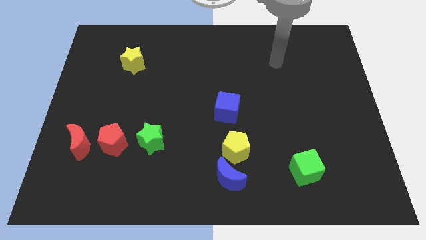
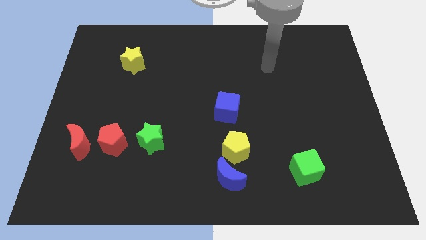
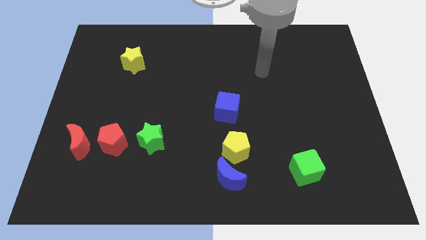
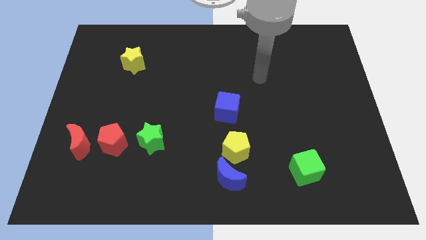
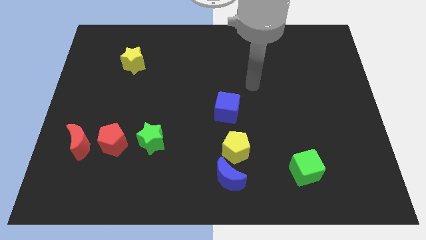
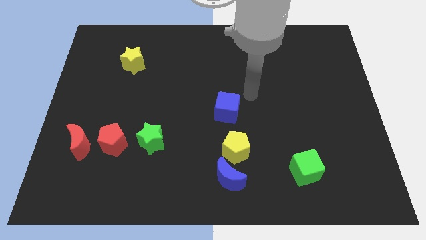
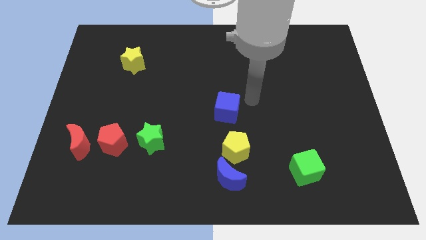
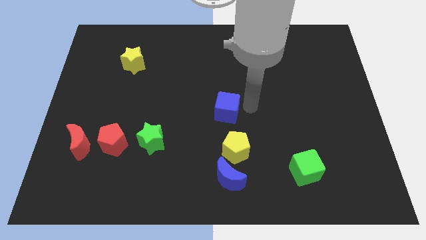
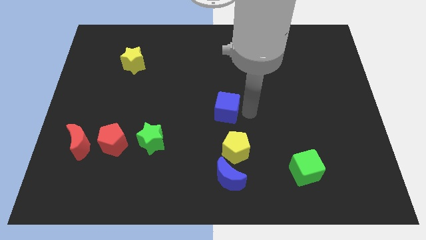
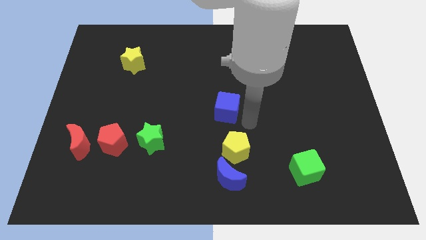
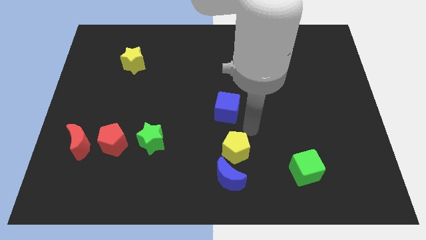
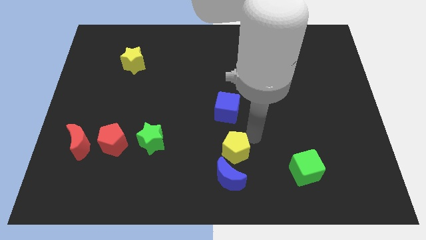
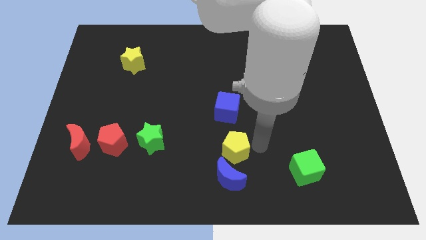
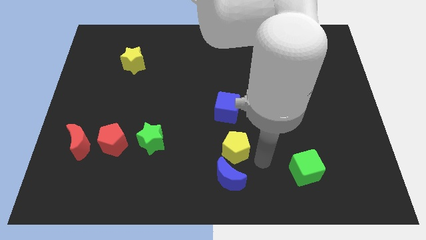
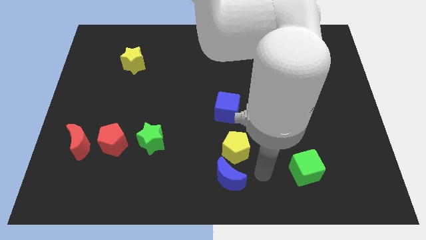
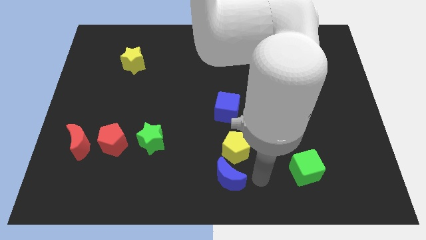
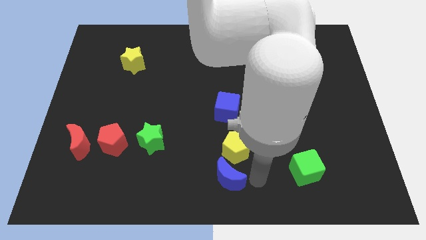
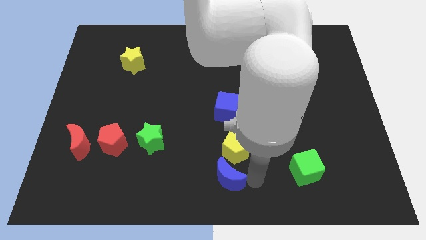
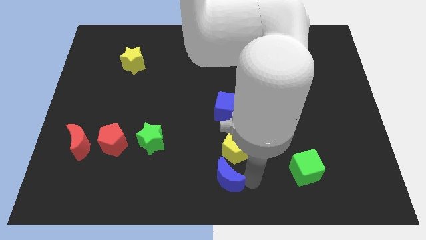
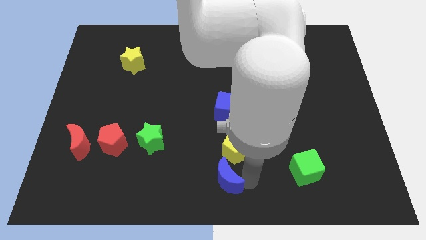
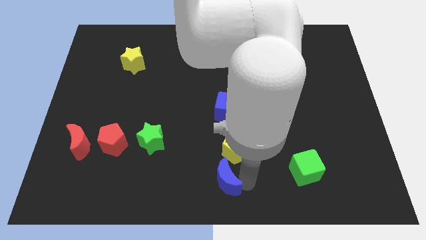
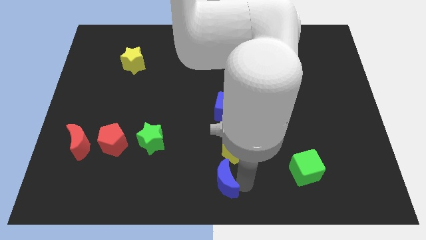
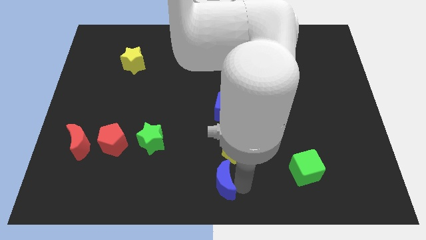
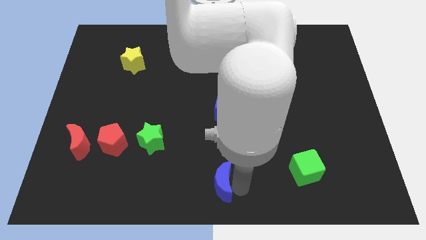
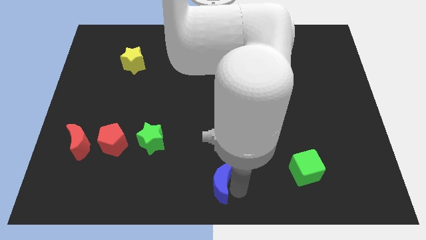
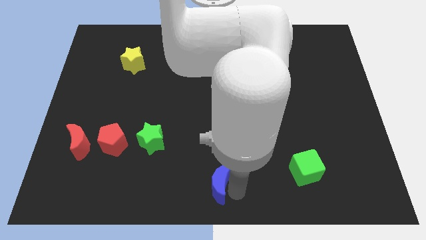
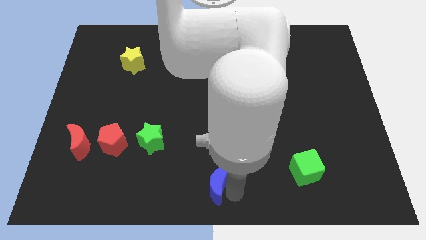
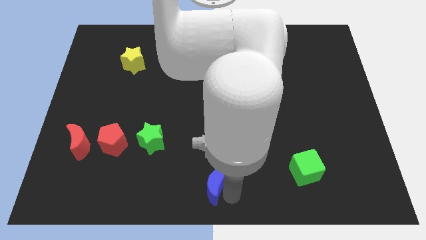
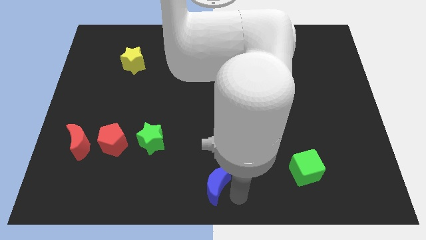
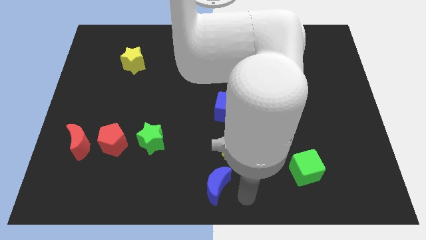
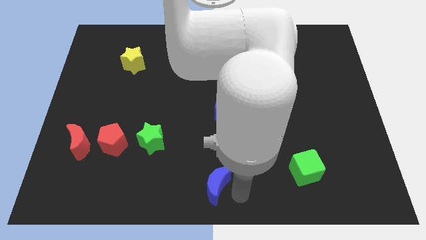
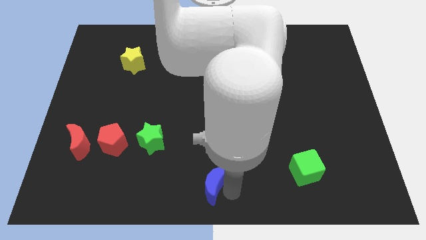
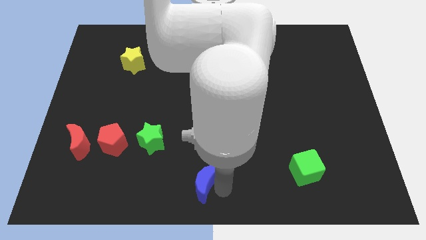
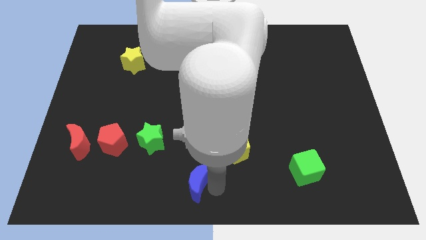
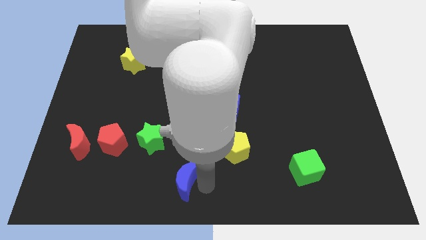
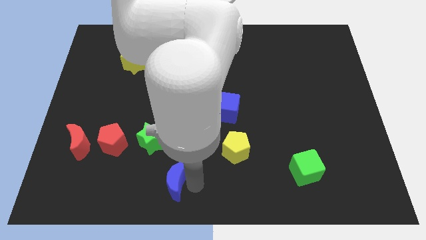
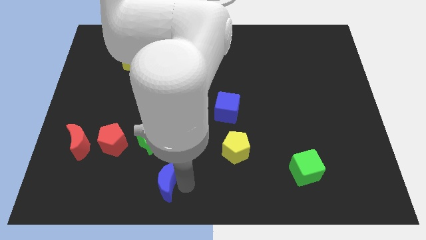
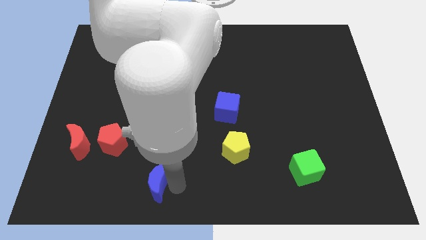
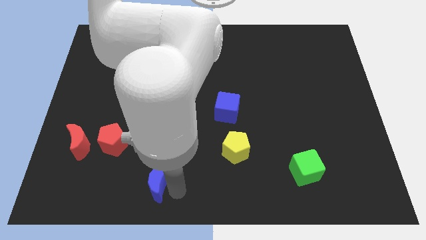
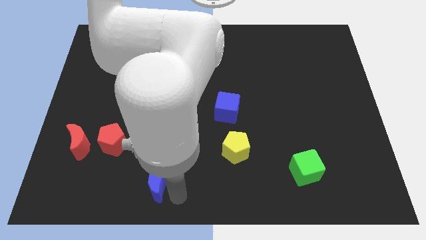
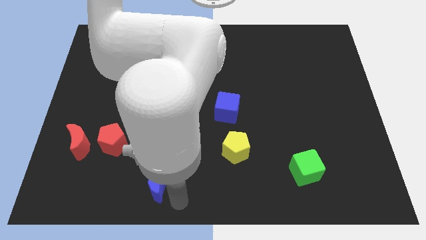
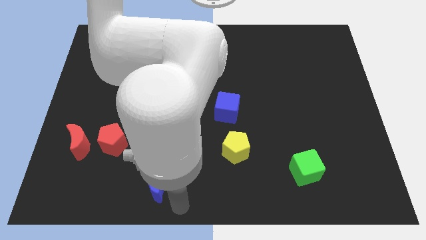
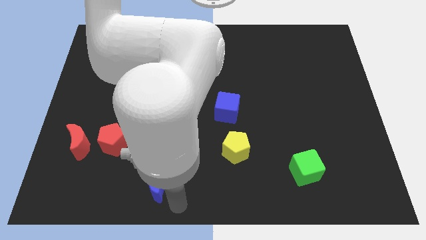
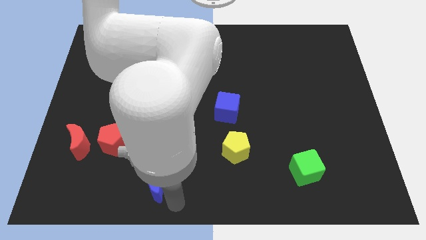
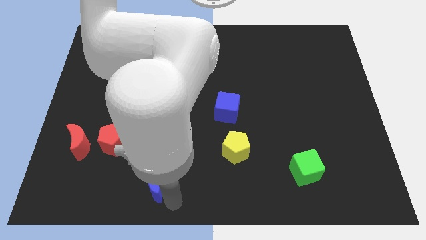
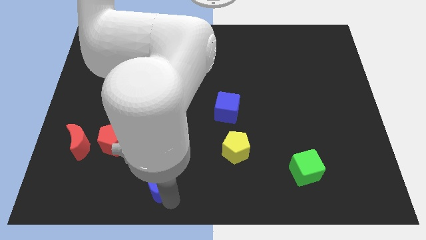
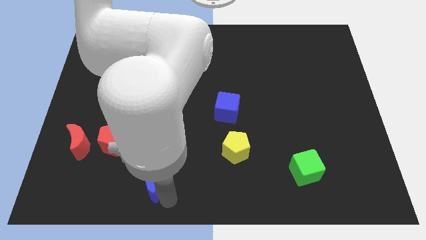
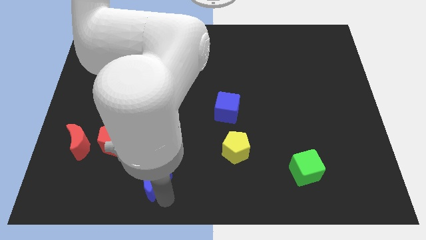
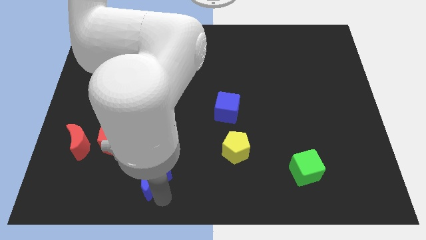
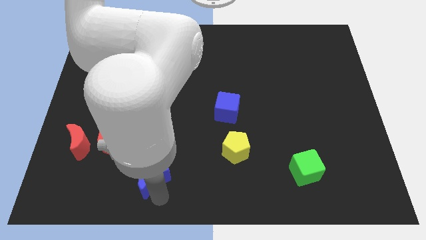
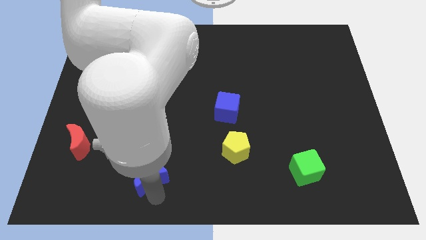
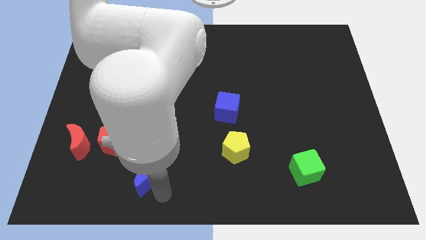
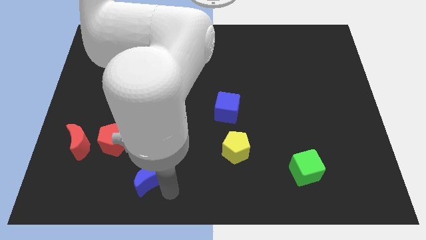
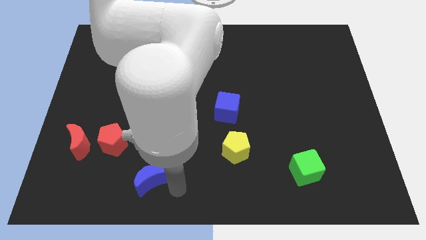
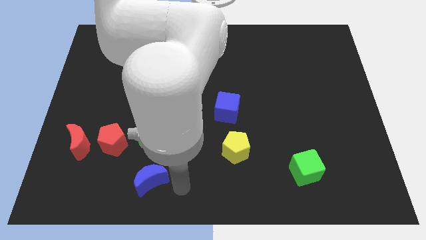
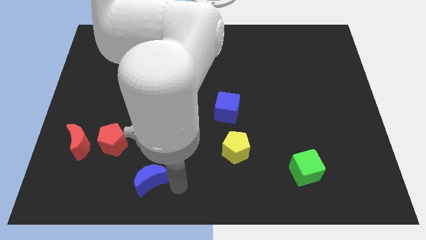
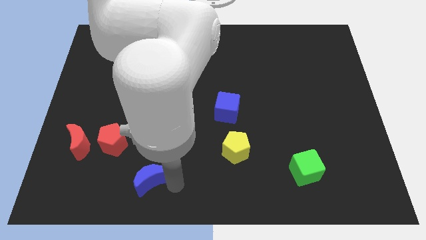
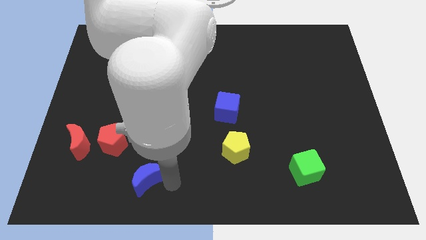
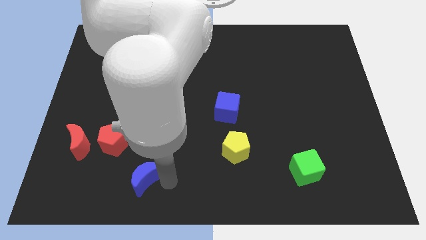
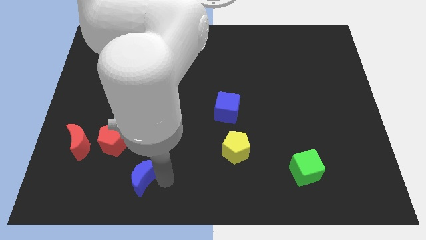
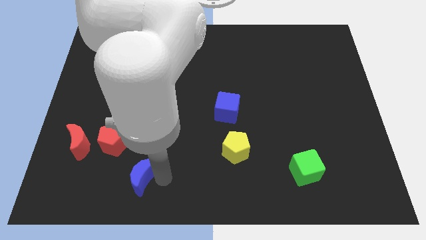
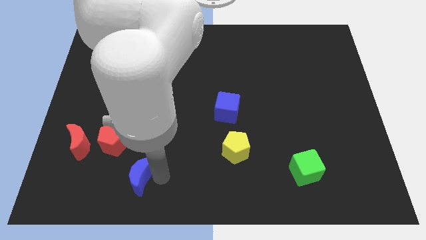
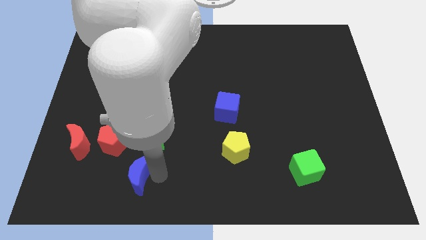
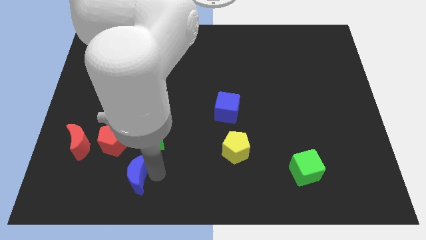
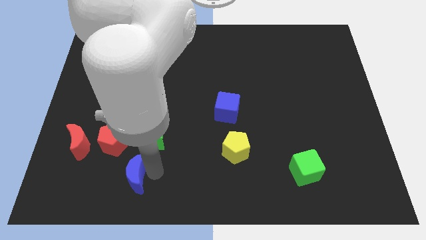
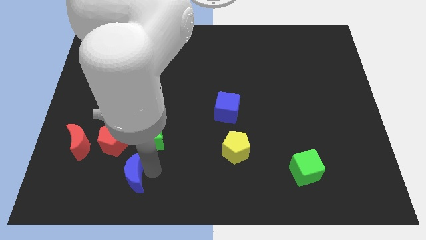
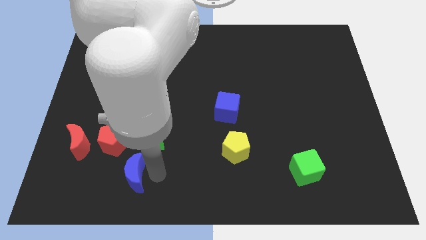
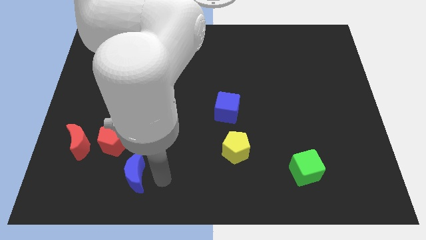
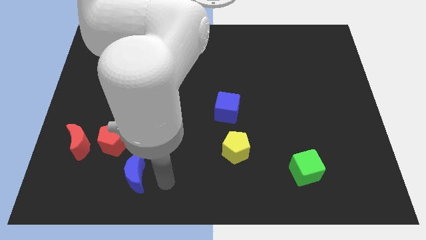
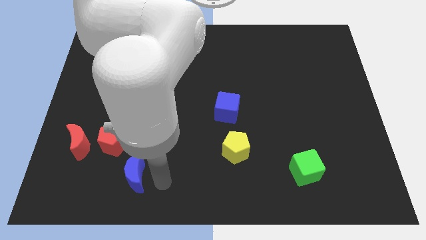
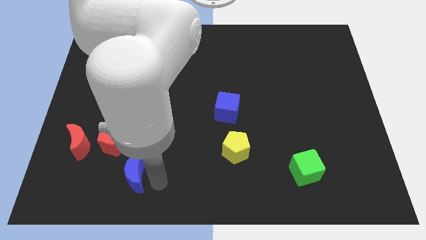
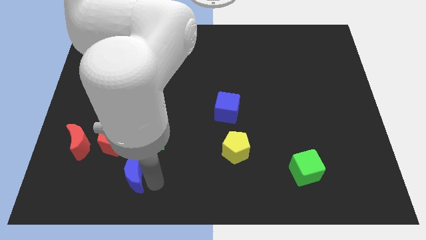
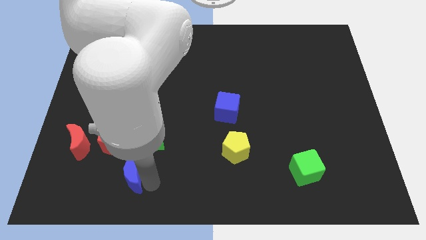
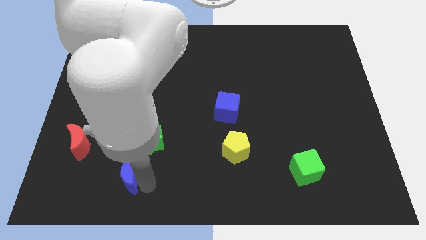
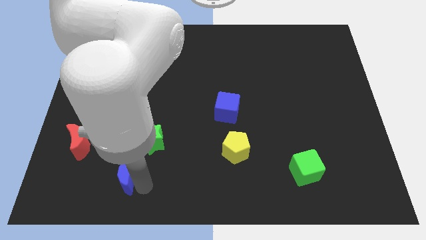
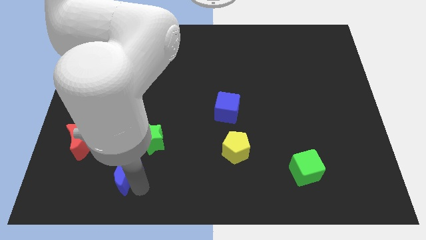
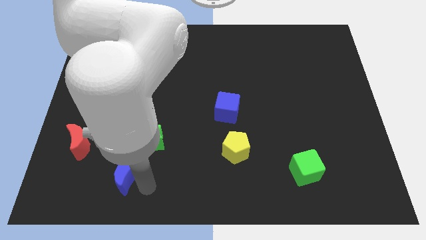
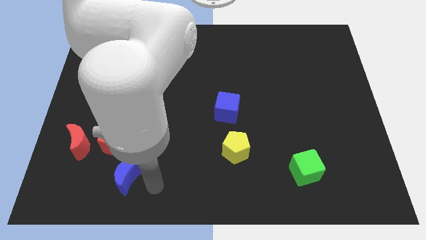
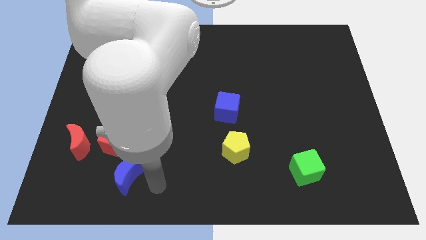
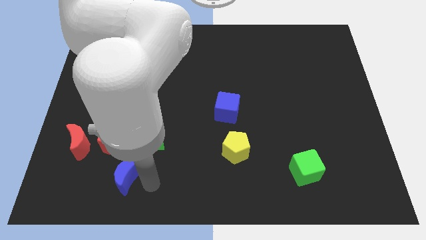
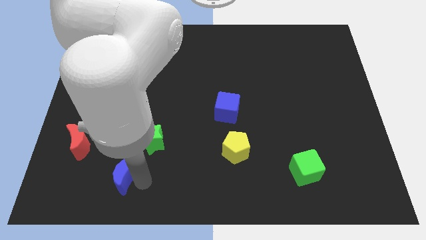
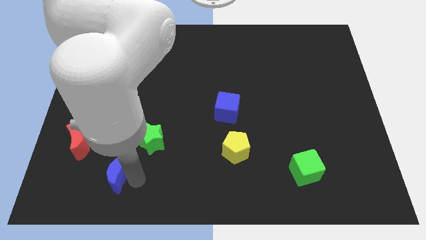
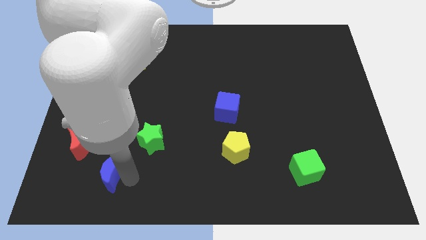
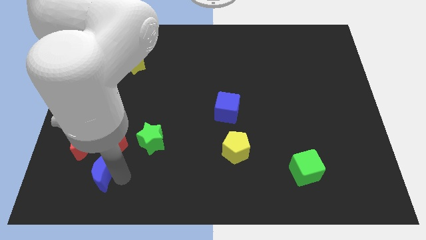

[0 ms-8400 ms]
put the blue moon diagonally down and to the left of the red pentagon
